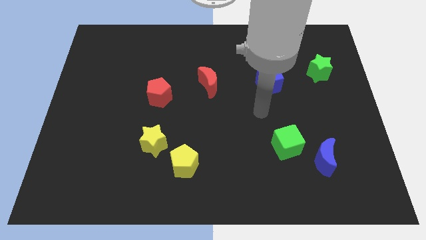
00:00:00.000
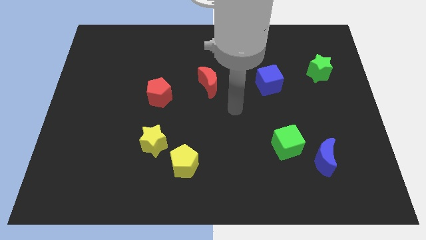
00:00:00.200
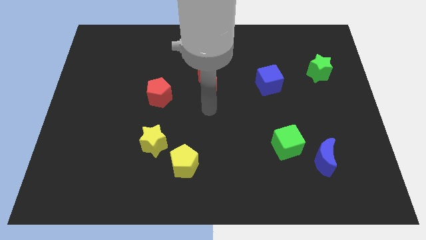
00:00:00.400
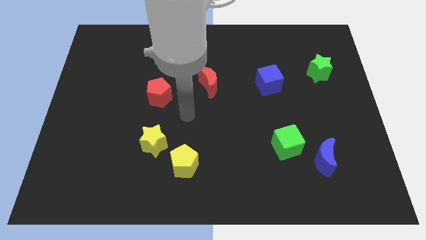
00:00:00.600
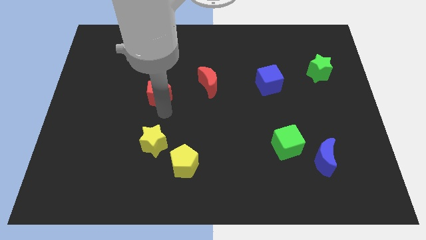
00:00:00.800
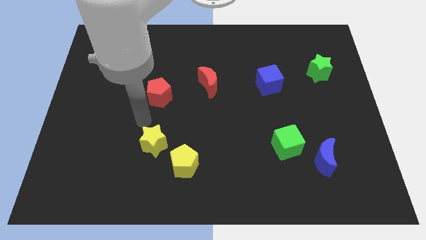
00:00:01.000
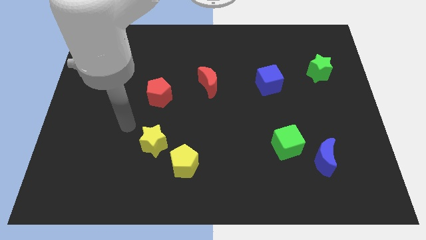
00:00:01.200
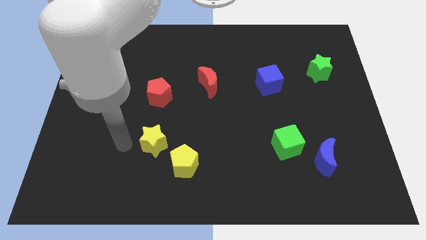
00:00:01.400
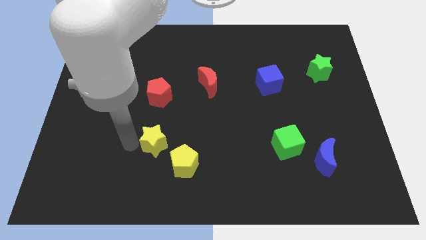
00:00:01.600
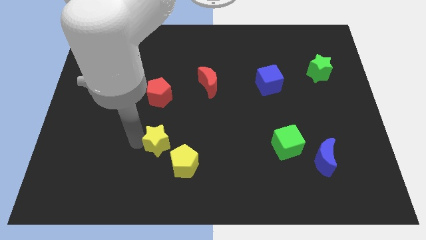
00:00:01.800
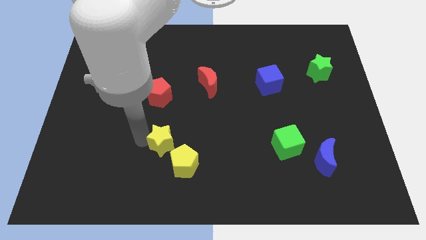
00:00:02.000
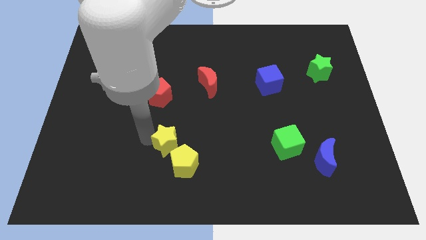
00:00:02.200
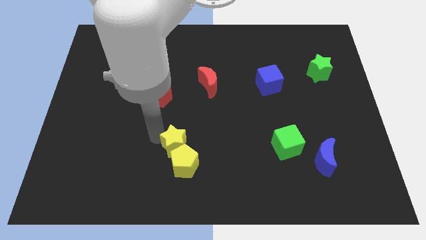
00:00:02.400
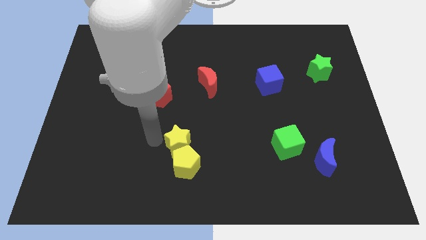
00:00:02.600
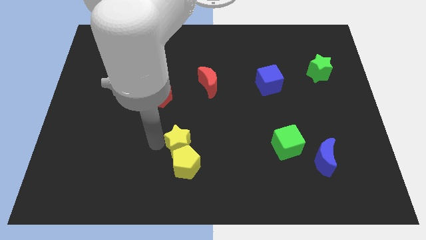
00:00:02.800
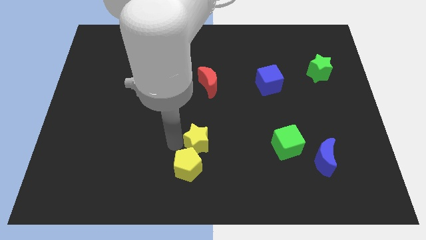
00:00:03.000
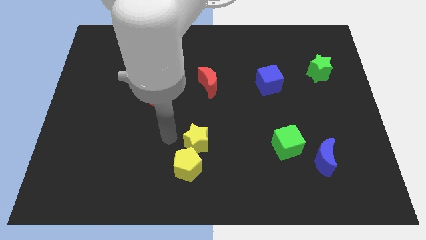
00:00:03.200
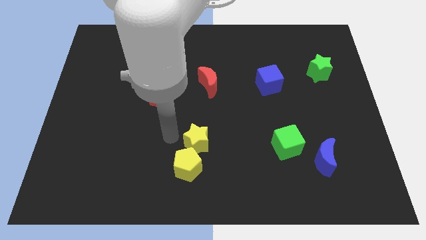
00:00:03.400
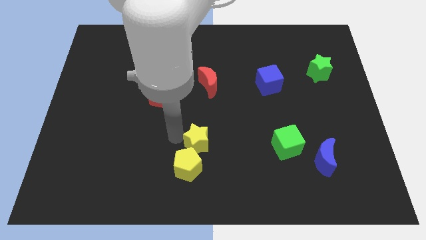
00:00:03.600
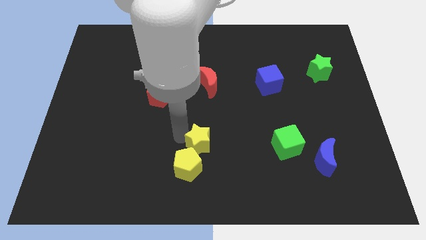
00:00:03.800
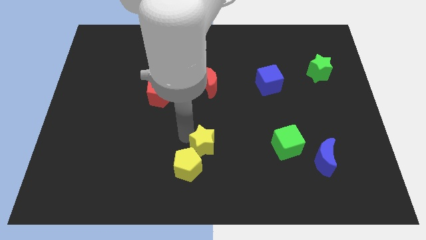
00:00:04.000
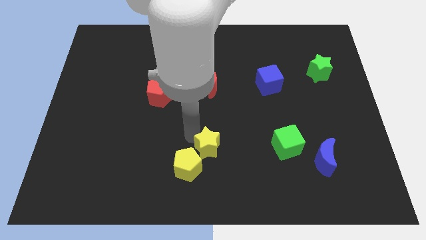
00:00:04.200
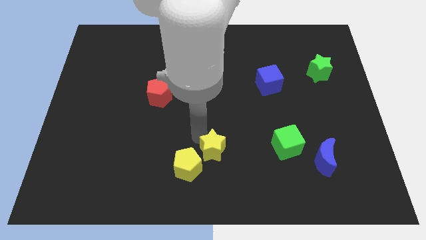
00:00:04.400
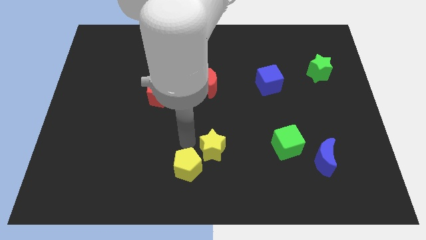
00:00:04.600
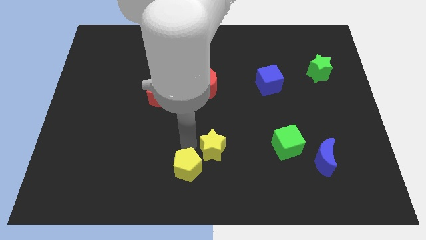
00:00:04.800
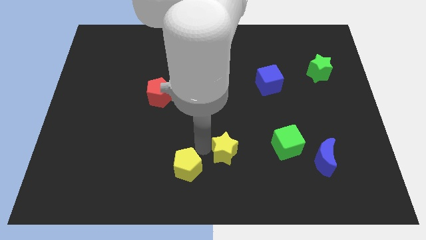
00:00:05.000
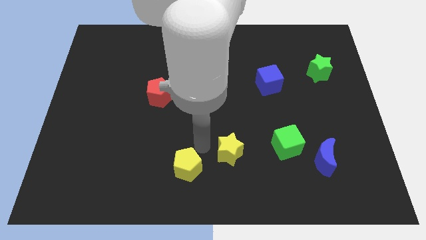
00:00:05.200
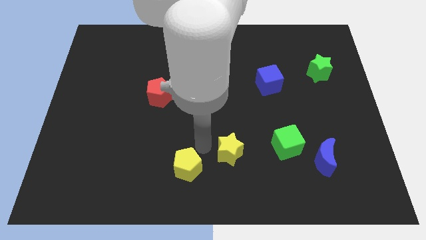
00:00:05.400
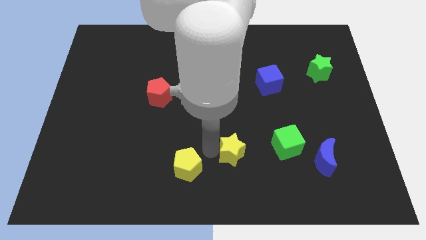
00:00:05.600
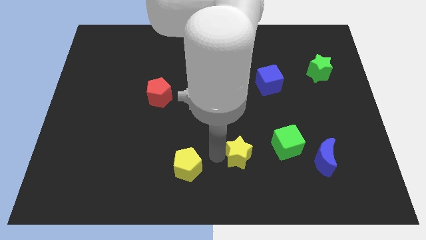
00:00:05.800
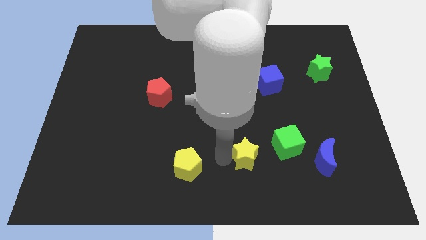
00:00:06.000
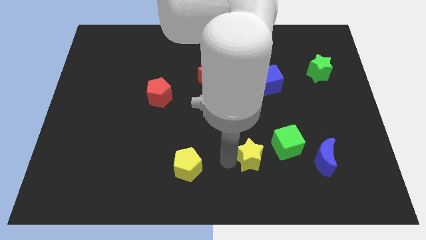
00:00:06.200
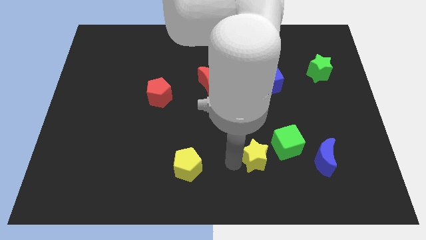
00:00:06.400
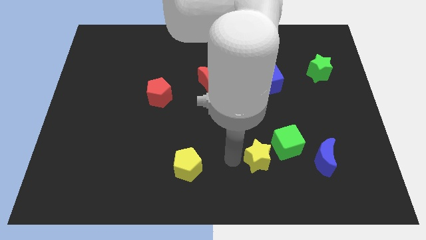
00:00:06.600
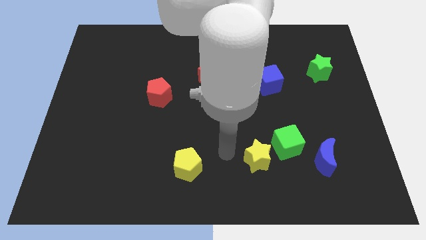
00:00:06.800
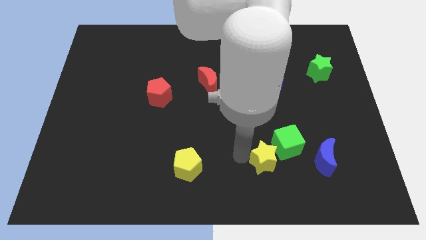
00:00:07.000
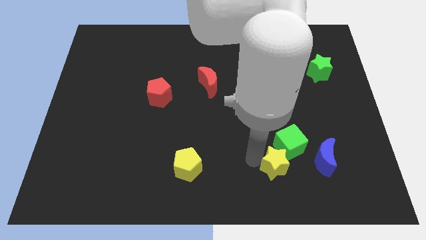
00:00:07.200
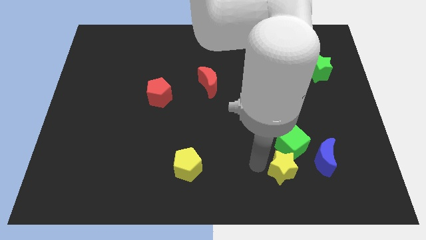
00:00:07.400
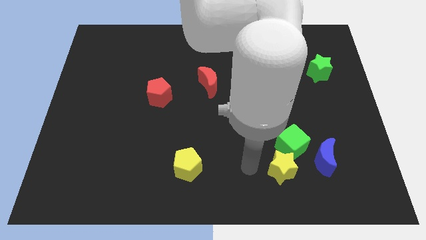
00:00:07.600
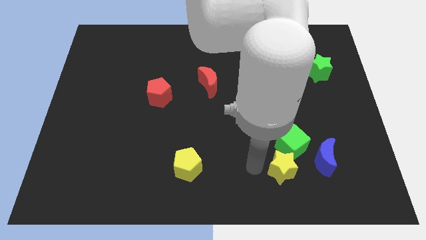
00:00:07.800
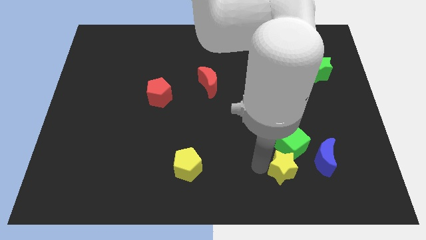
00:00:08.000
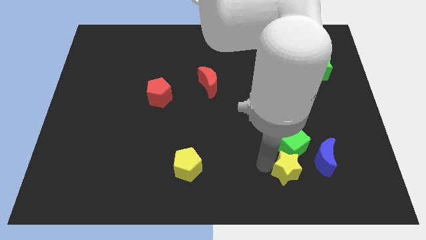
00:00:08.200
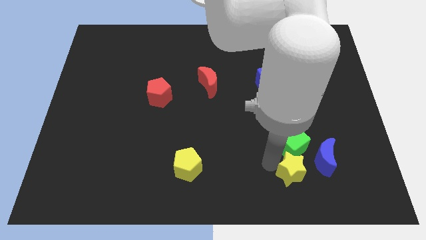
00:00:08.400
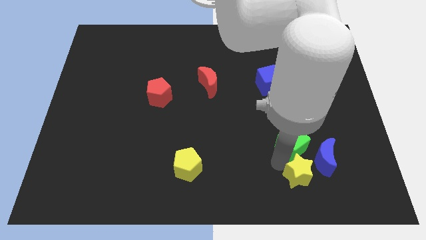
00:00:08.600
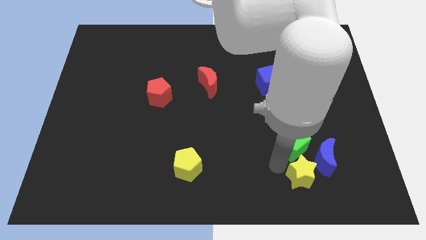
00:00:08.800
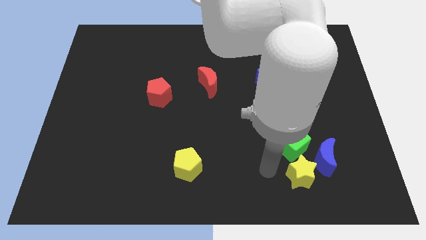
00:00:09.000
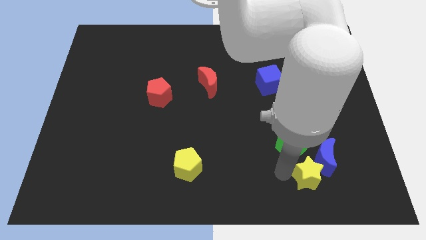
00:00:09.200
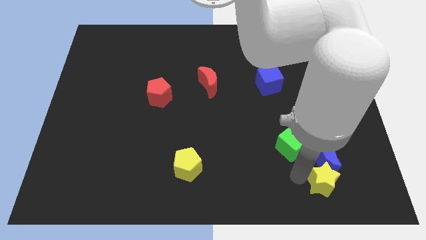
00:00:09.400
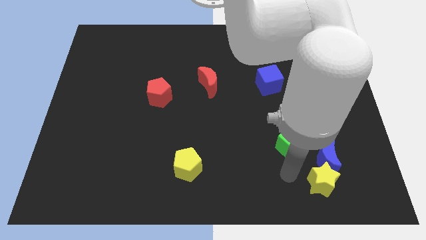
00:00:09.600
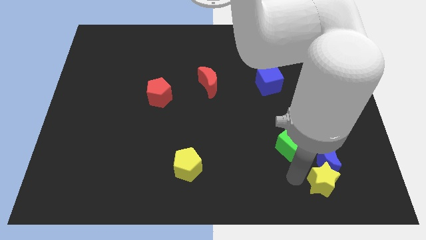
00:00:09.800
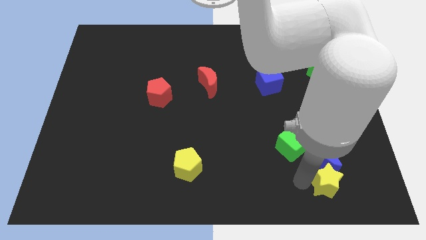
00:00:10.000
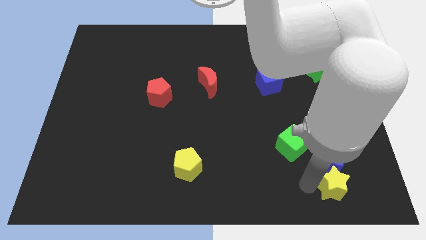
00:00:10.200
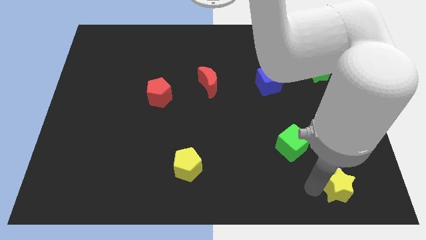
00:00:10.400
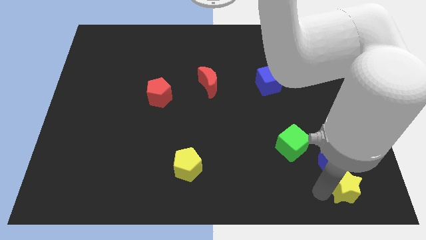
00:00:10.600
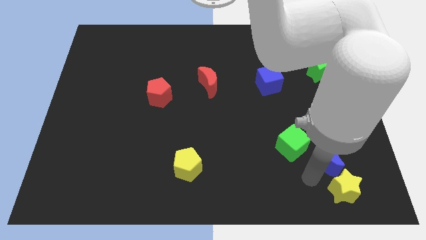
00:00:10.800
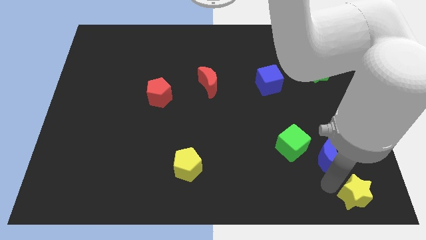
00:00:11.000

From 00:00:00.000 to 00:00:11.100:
slide the yellow star to the bottom right corner

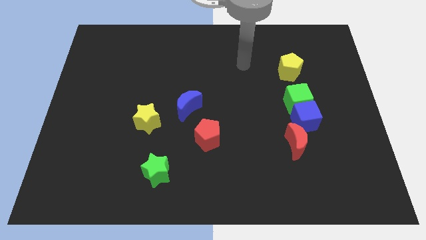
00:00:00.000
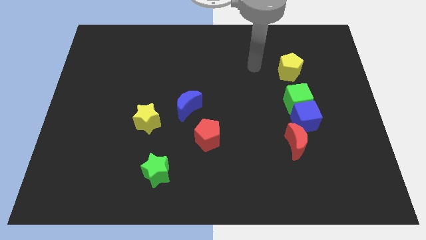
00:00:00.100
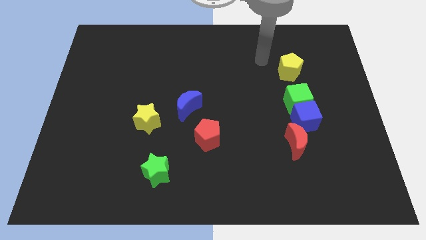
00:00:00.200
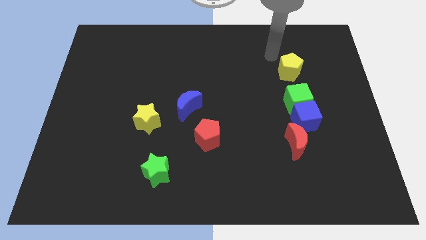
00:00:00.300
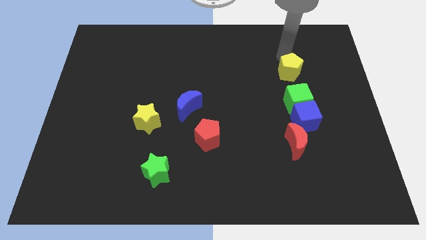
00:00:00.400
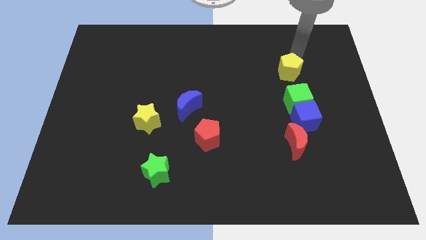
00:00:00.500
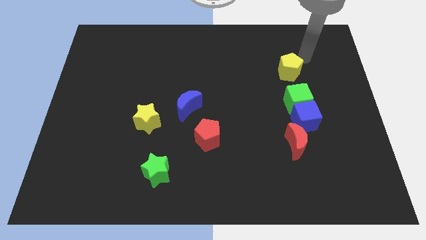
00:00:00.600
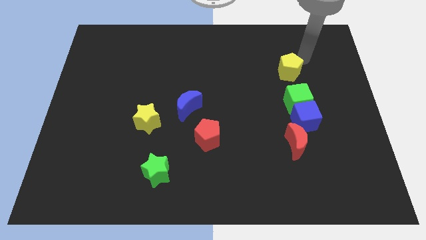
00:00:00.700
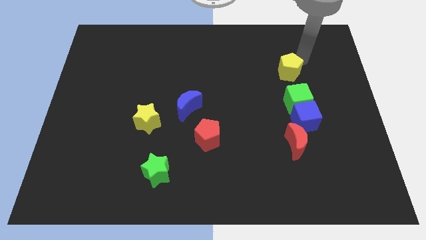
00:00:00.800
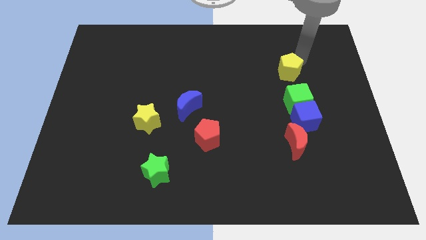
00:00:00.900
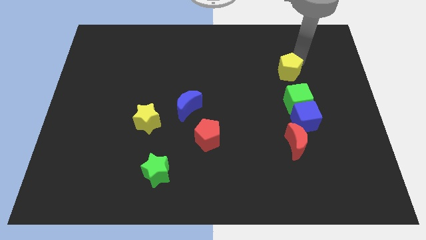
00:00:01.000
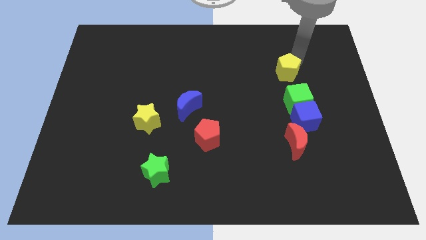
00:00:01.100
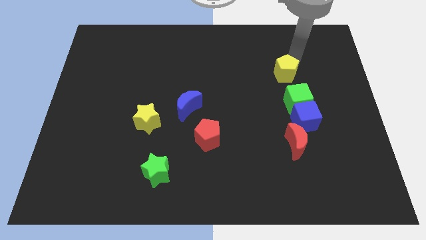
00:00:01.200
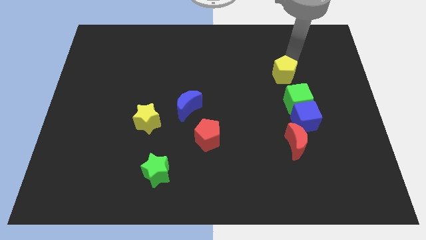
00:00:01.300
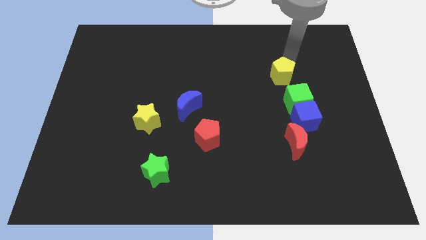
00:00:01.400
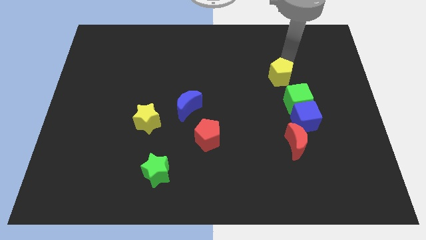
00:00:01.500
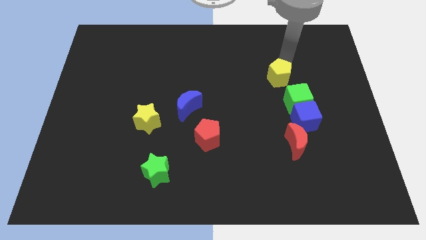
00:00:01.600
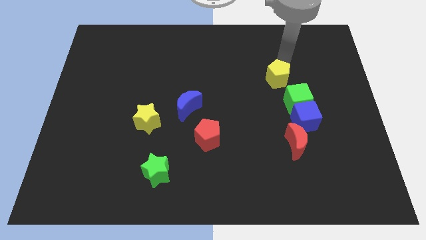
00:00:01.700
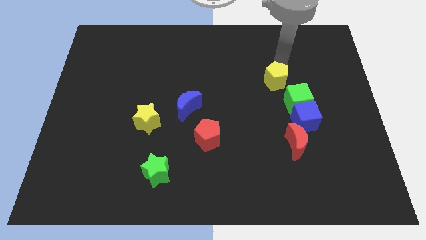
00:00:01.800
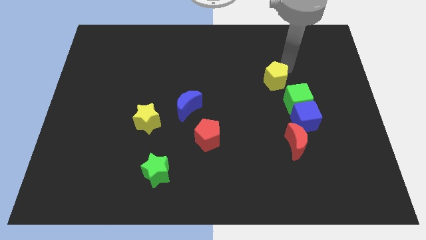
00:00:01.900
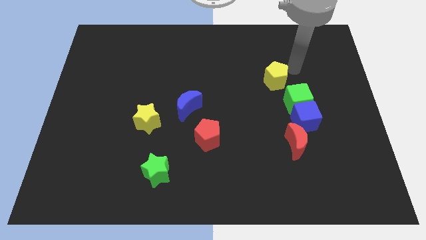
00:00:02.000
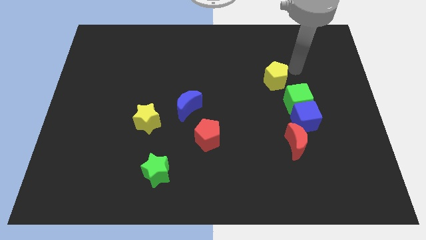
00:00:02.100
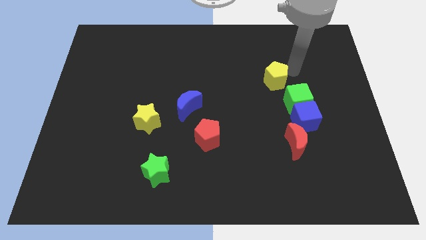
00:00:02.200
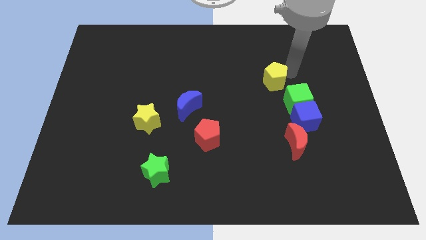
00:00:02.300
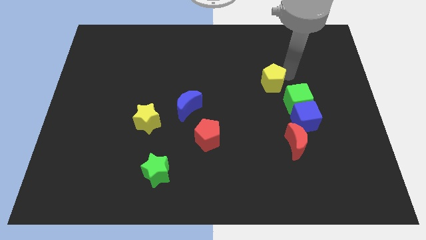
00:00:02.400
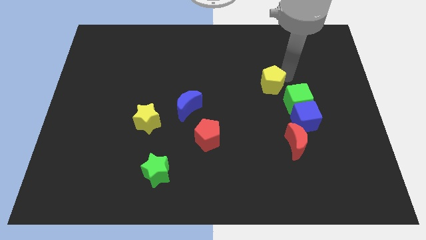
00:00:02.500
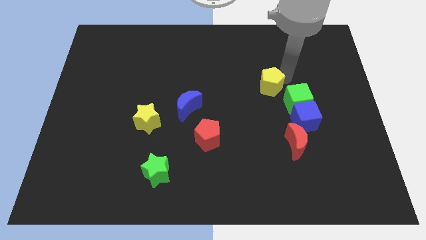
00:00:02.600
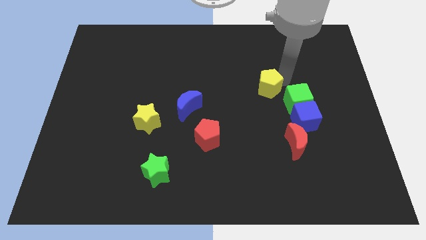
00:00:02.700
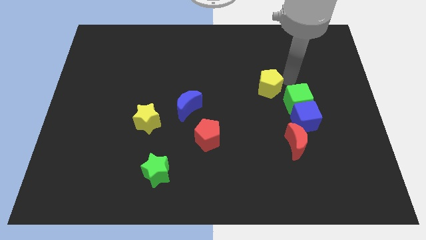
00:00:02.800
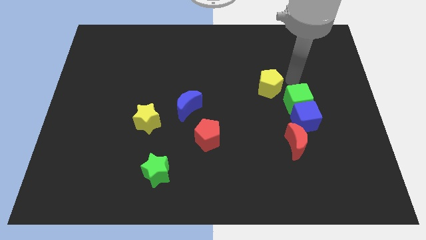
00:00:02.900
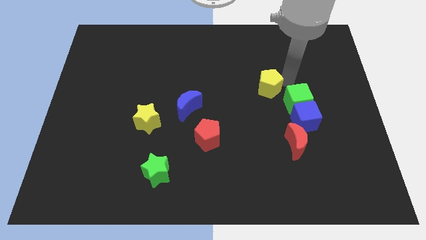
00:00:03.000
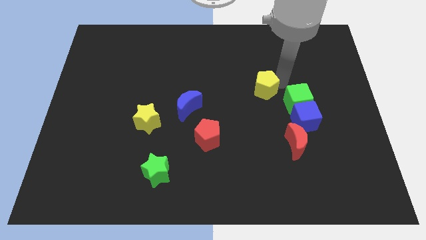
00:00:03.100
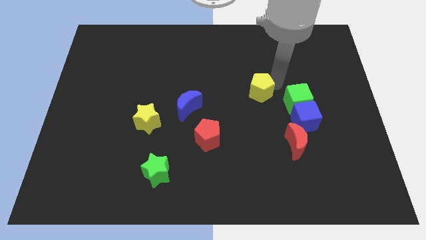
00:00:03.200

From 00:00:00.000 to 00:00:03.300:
push the yellow pentagon to the center
